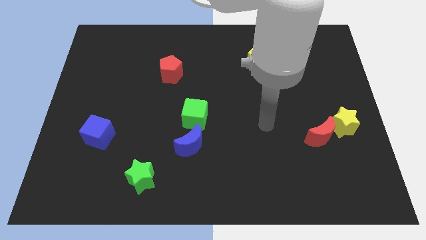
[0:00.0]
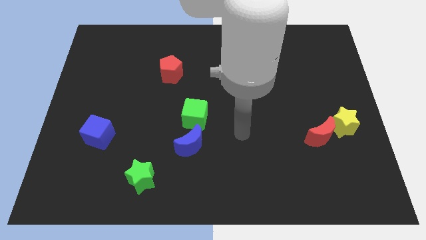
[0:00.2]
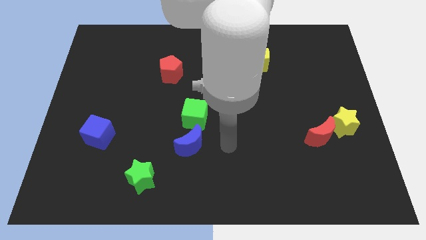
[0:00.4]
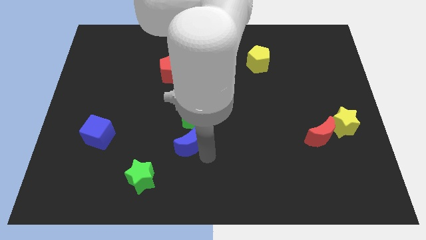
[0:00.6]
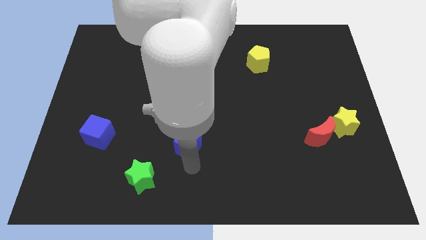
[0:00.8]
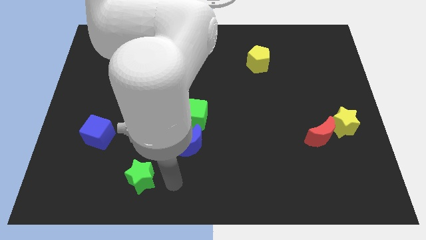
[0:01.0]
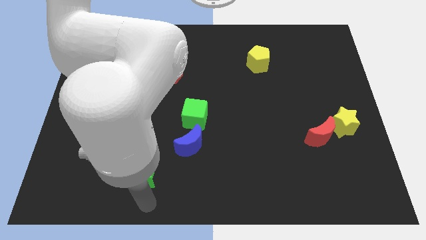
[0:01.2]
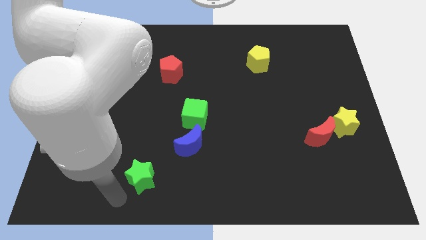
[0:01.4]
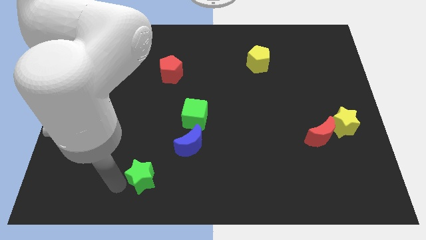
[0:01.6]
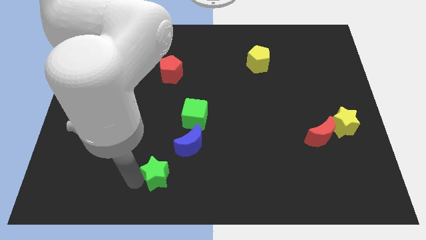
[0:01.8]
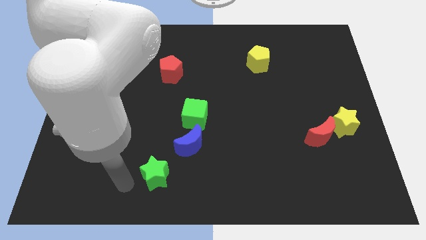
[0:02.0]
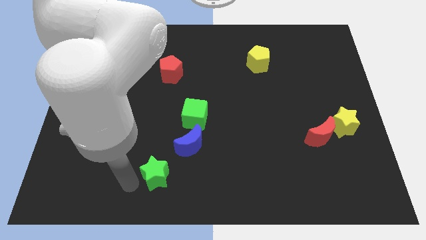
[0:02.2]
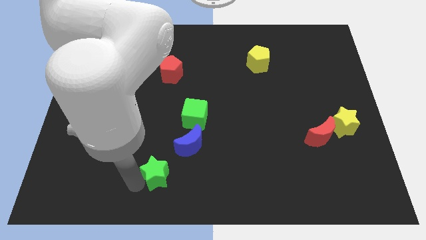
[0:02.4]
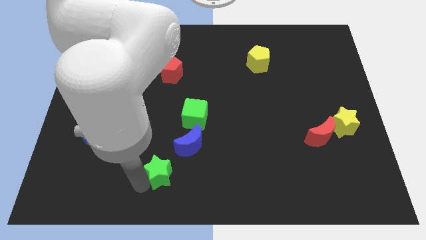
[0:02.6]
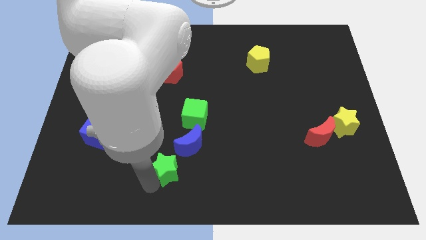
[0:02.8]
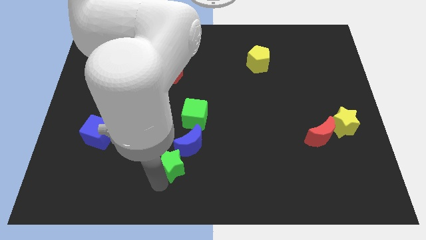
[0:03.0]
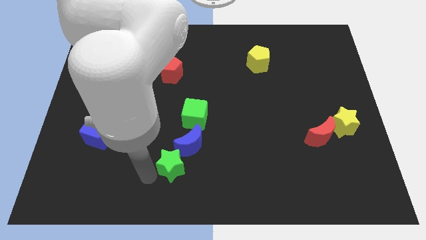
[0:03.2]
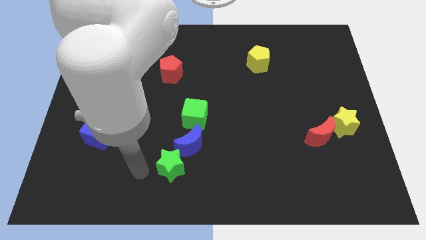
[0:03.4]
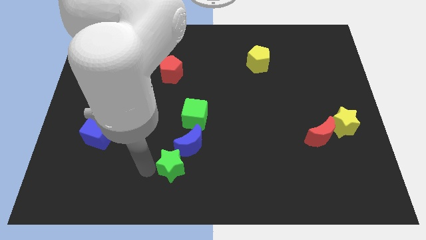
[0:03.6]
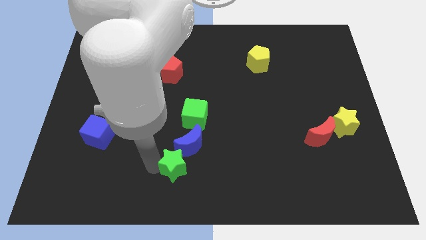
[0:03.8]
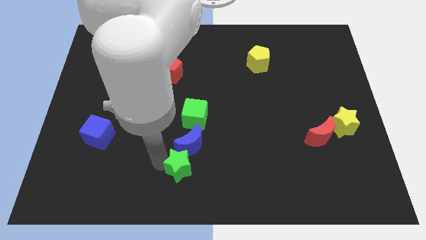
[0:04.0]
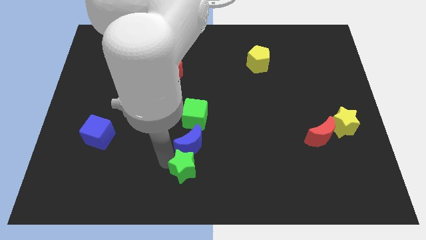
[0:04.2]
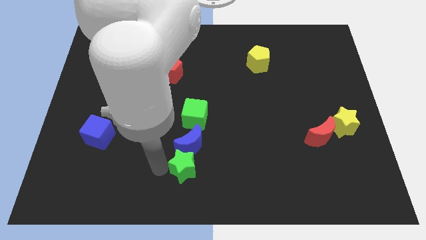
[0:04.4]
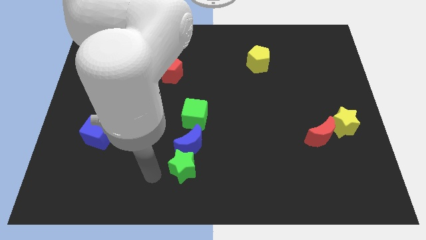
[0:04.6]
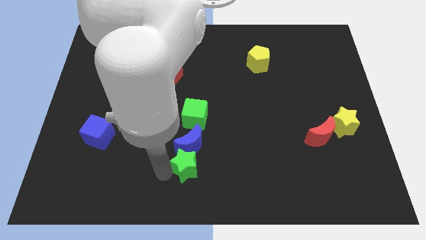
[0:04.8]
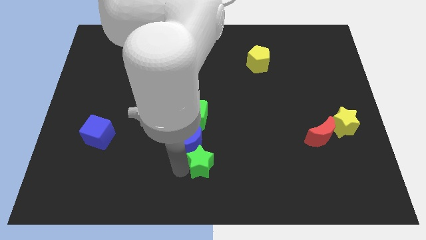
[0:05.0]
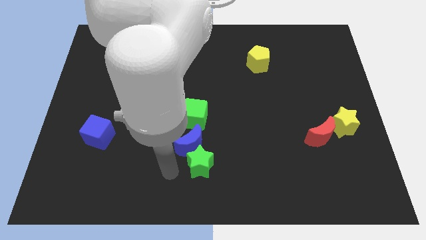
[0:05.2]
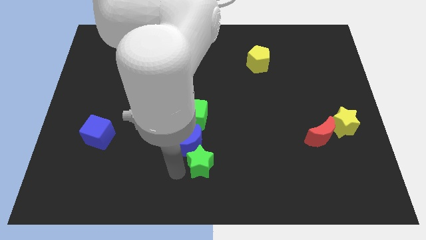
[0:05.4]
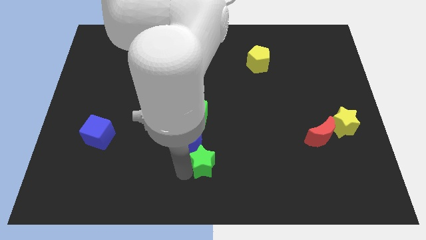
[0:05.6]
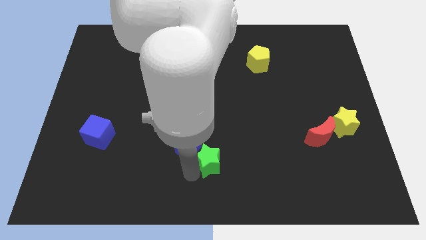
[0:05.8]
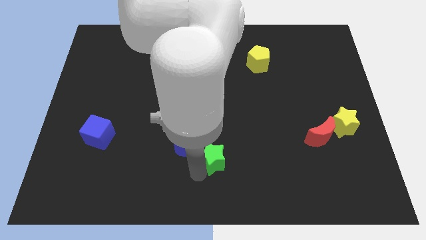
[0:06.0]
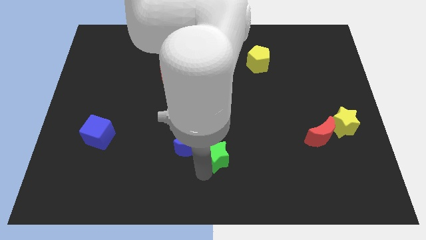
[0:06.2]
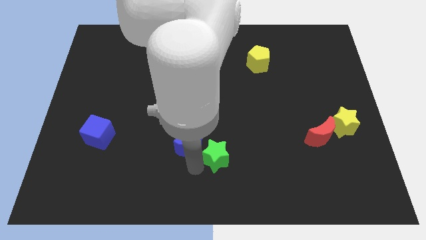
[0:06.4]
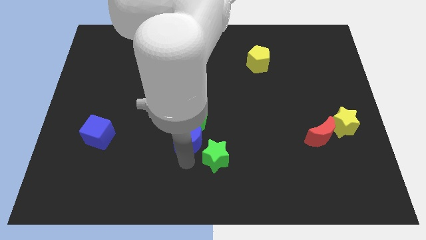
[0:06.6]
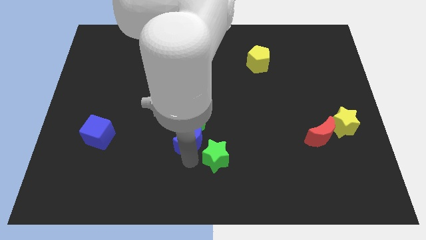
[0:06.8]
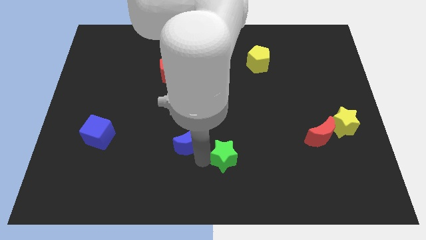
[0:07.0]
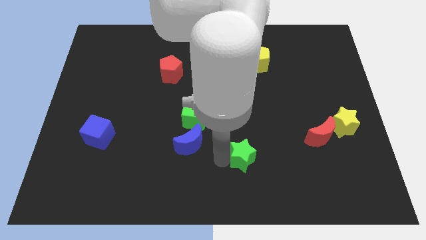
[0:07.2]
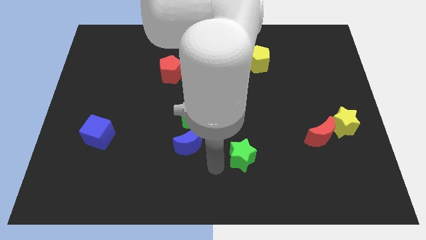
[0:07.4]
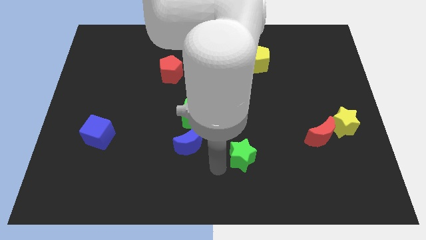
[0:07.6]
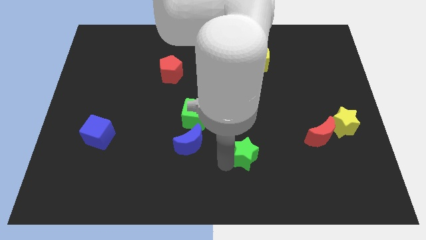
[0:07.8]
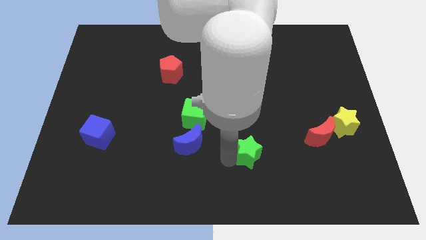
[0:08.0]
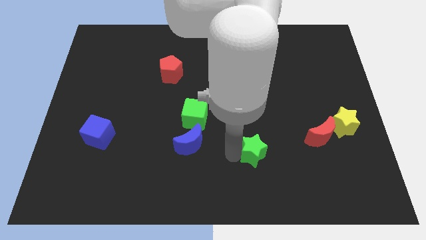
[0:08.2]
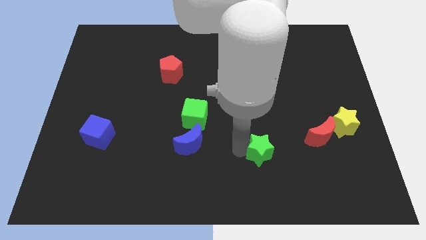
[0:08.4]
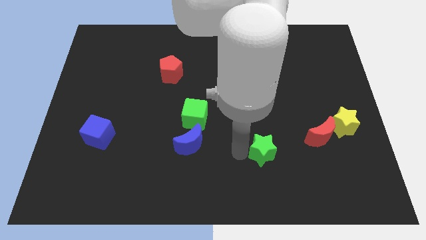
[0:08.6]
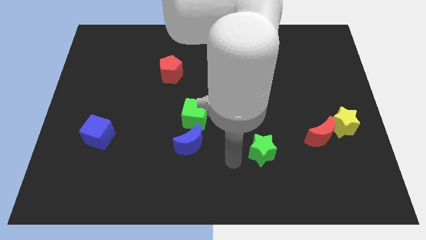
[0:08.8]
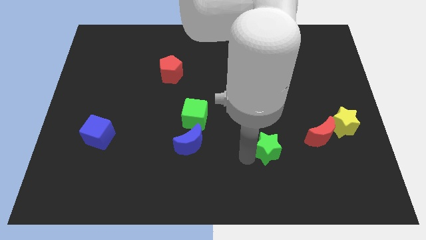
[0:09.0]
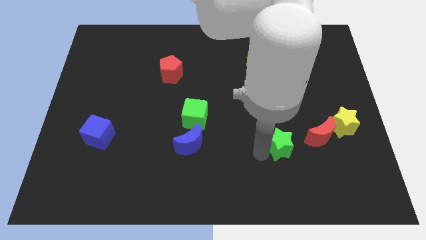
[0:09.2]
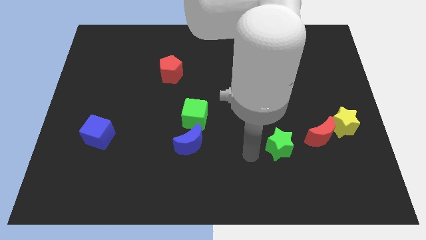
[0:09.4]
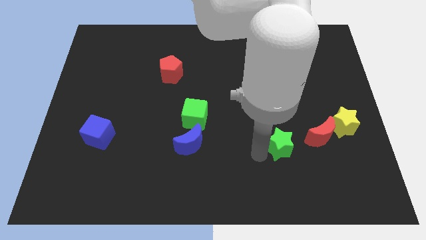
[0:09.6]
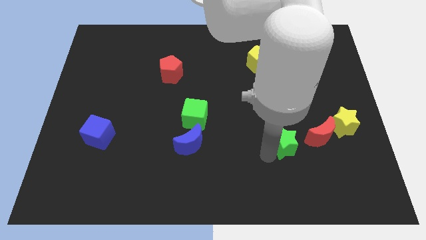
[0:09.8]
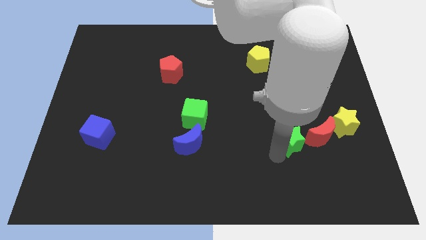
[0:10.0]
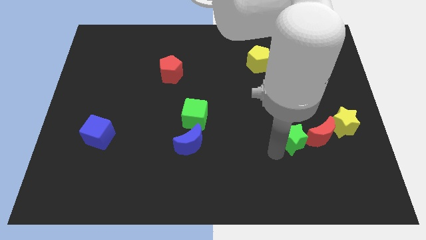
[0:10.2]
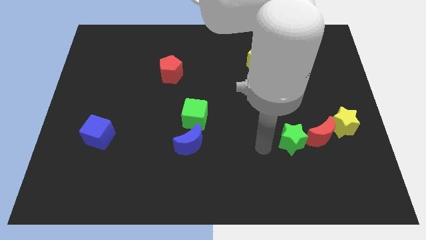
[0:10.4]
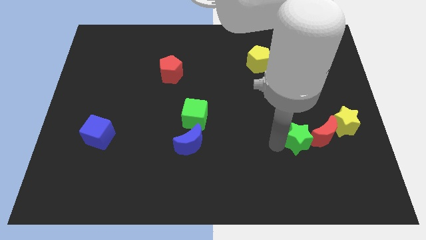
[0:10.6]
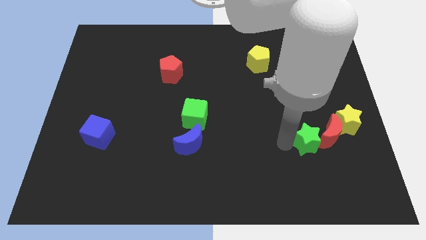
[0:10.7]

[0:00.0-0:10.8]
move the green star towards the red moon

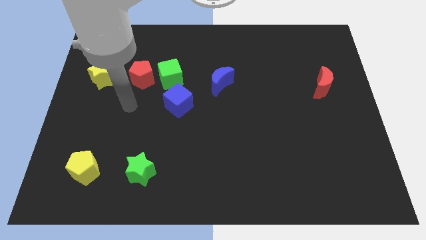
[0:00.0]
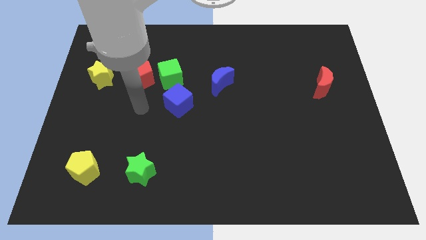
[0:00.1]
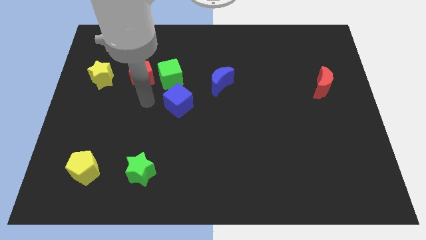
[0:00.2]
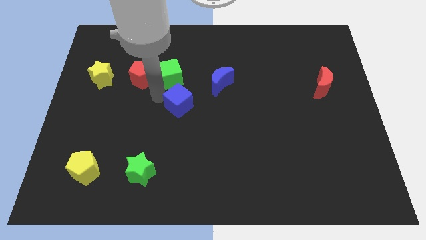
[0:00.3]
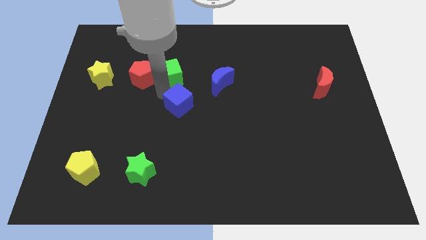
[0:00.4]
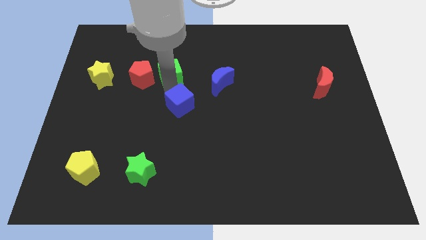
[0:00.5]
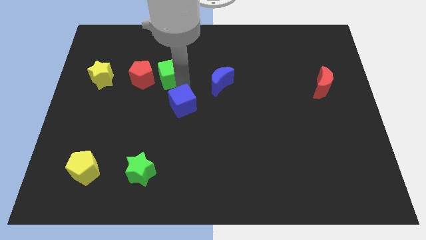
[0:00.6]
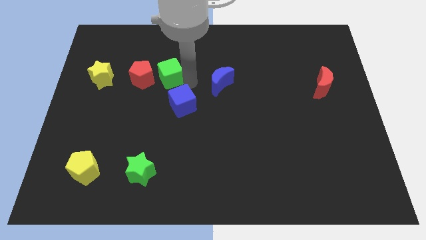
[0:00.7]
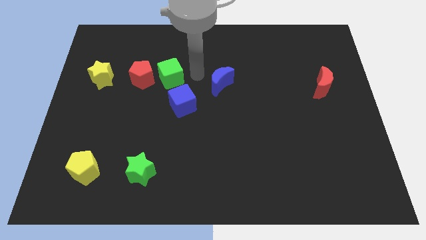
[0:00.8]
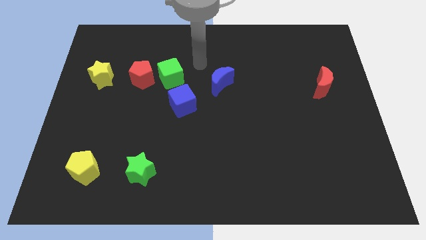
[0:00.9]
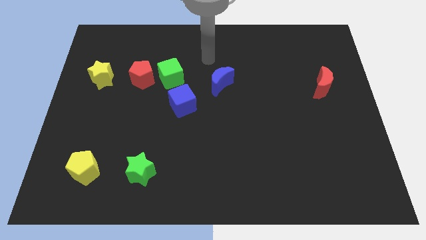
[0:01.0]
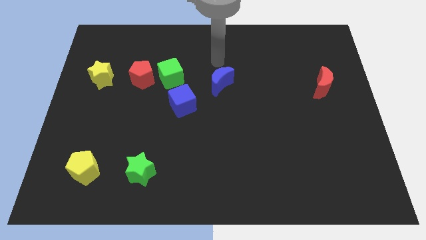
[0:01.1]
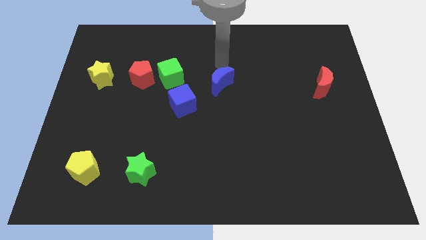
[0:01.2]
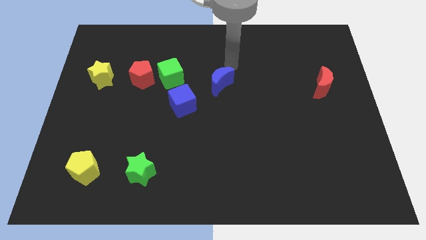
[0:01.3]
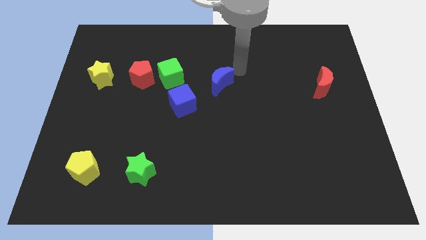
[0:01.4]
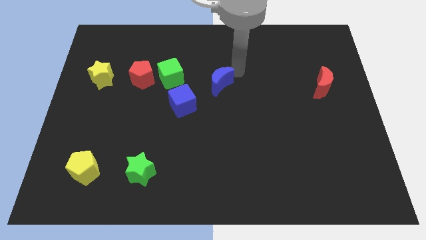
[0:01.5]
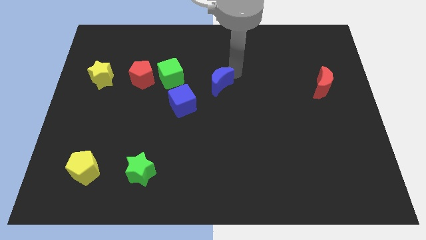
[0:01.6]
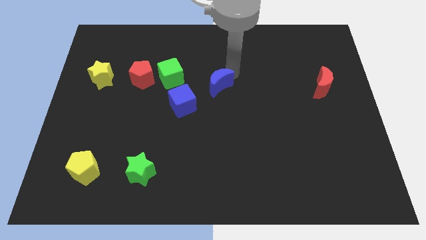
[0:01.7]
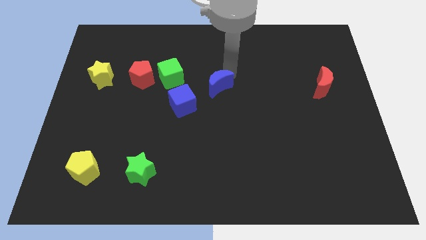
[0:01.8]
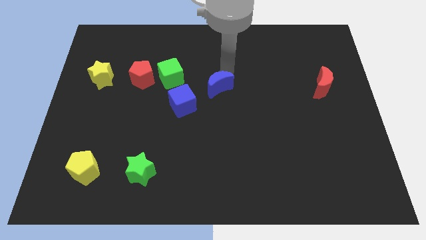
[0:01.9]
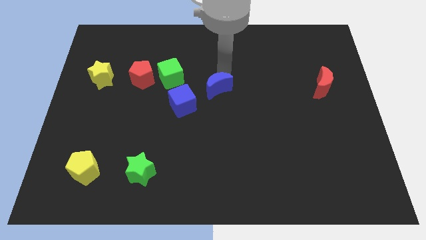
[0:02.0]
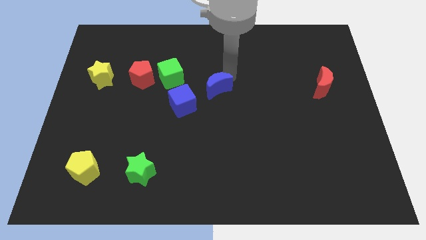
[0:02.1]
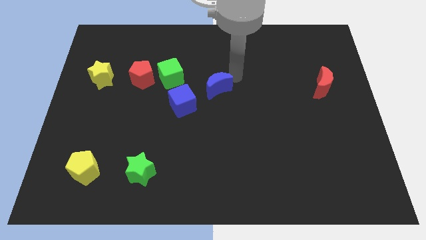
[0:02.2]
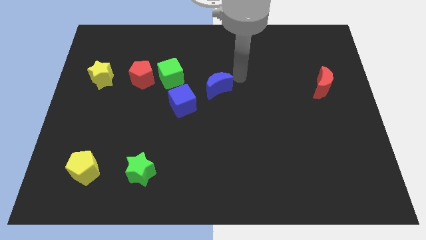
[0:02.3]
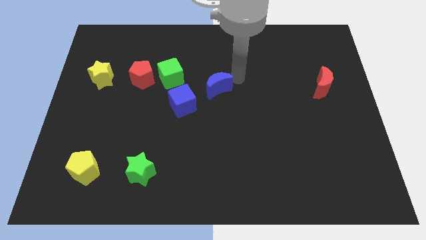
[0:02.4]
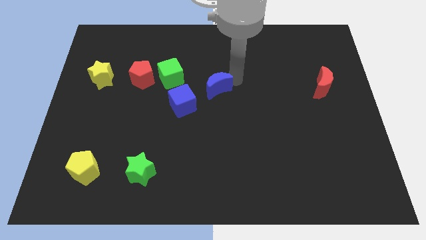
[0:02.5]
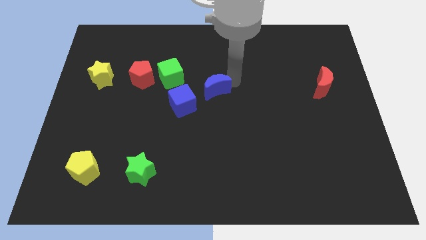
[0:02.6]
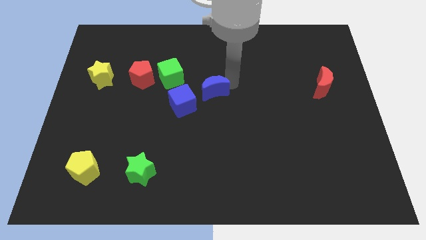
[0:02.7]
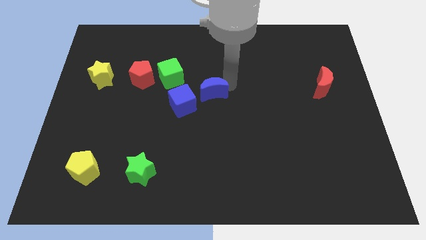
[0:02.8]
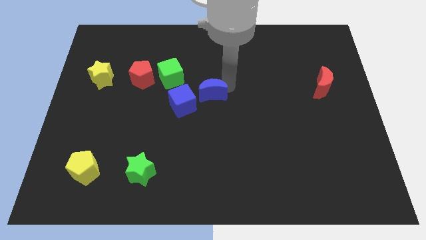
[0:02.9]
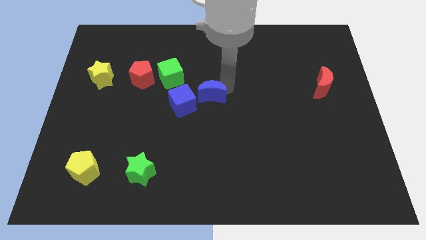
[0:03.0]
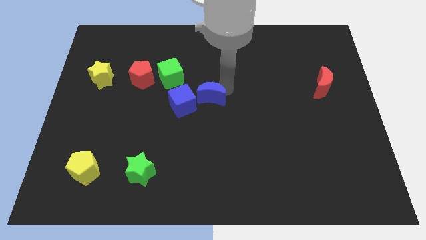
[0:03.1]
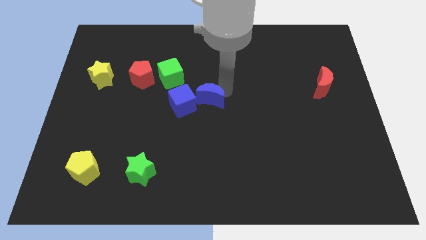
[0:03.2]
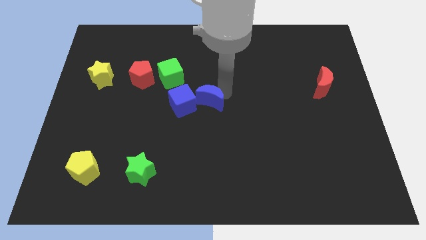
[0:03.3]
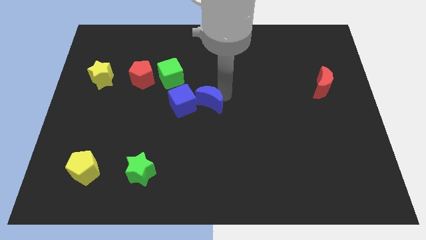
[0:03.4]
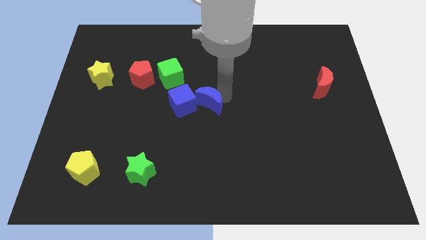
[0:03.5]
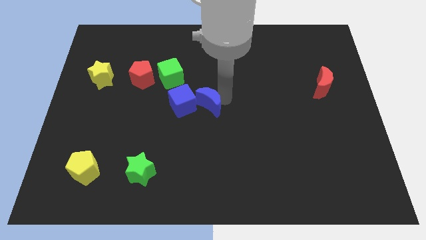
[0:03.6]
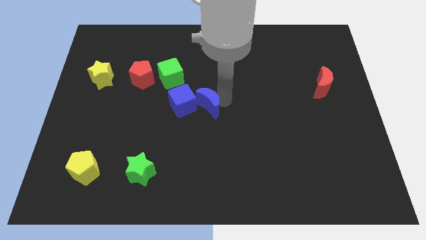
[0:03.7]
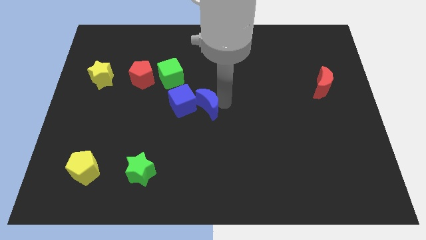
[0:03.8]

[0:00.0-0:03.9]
put the blue moon next to the blue cube
